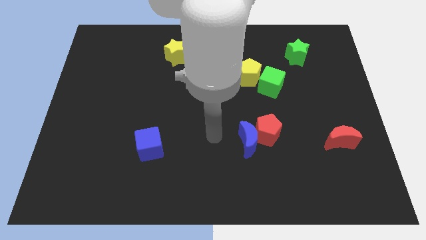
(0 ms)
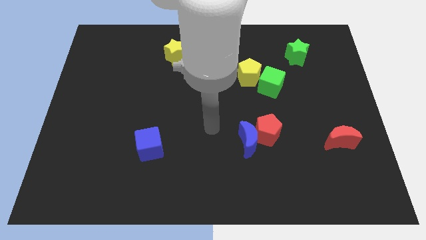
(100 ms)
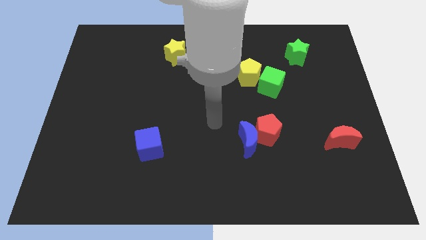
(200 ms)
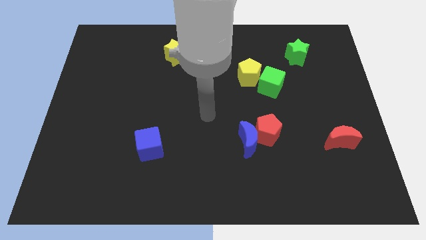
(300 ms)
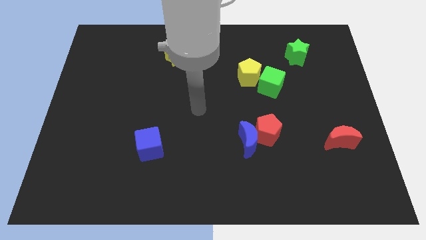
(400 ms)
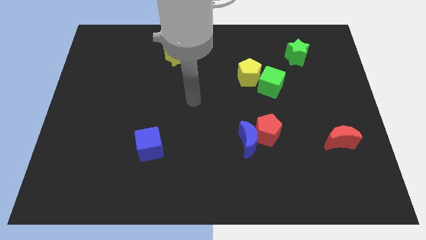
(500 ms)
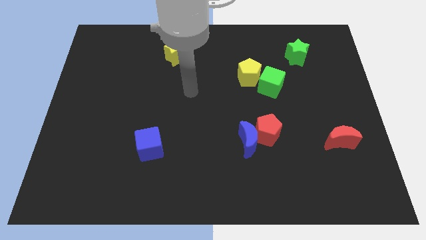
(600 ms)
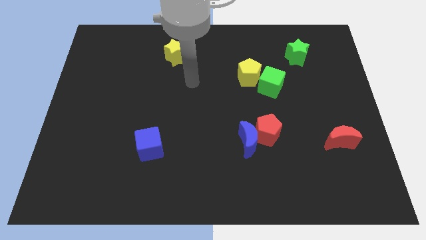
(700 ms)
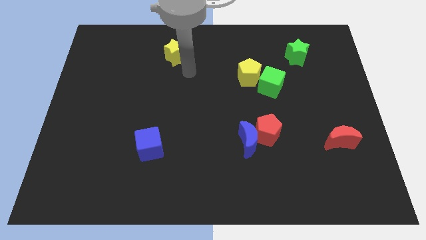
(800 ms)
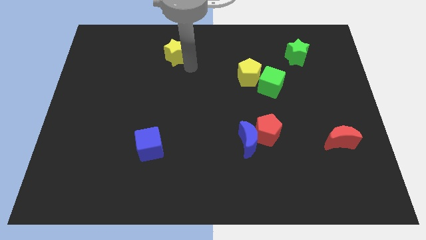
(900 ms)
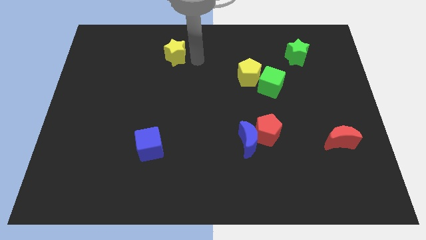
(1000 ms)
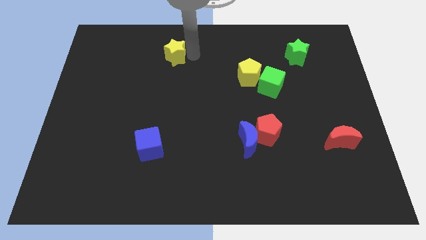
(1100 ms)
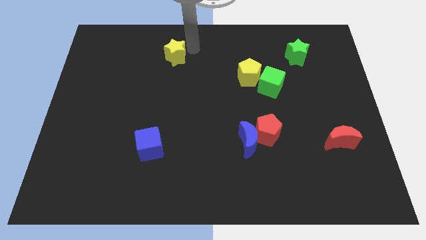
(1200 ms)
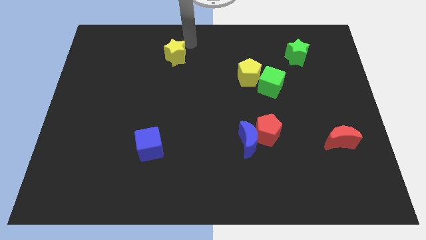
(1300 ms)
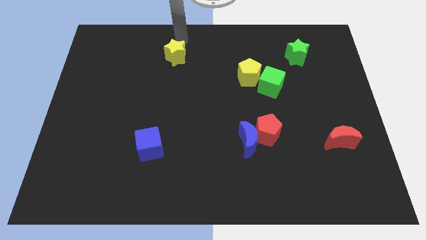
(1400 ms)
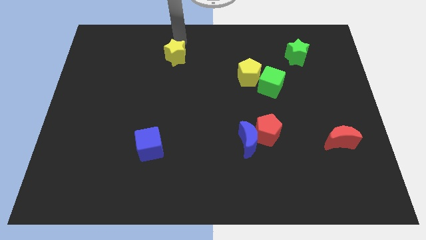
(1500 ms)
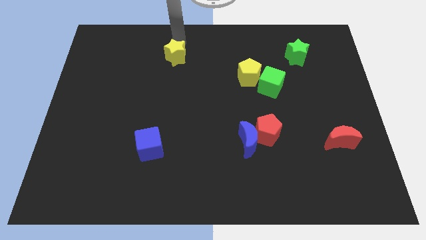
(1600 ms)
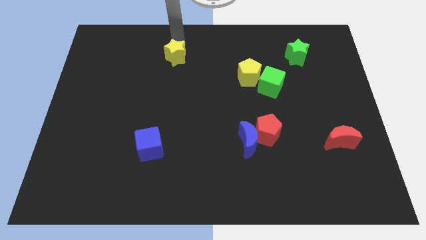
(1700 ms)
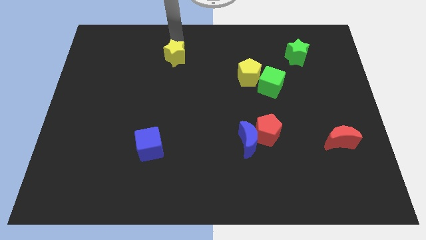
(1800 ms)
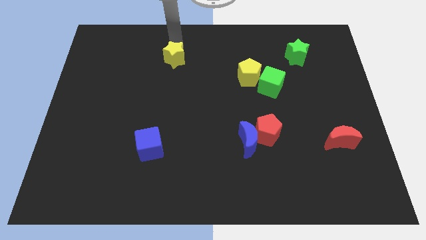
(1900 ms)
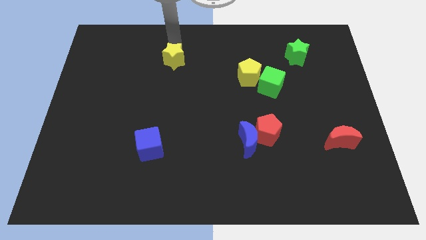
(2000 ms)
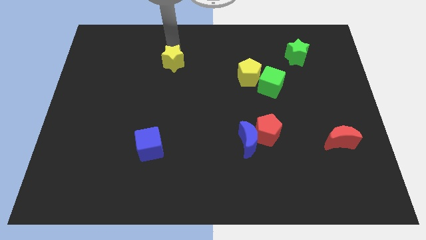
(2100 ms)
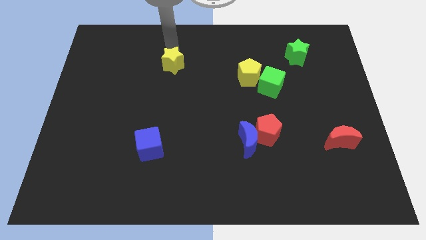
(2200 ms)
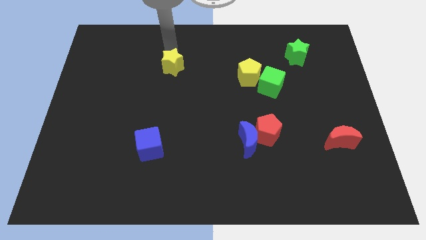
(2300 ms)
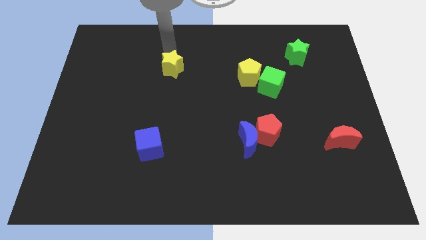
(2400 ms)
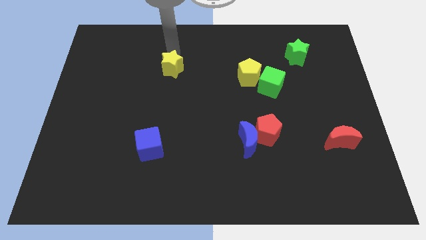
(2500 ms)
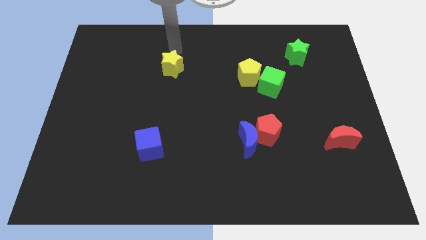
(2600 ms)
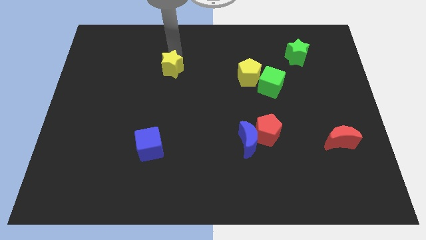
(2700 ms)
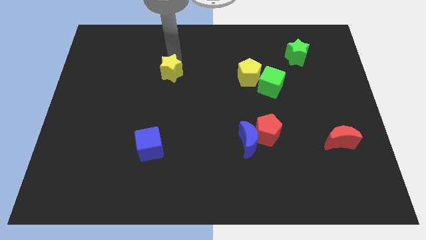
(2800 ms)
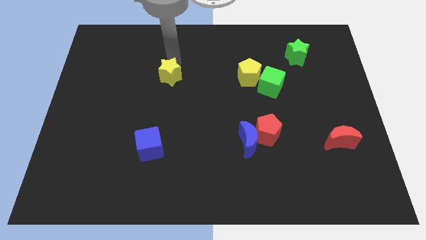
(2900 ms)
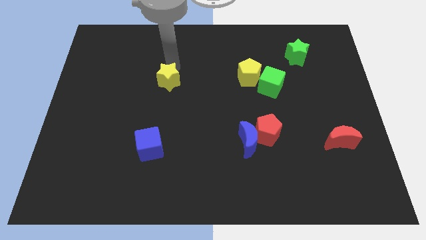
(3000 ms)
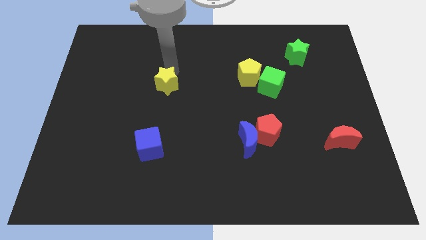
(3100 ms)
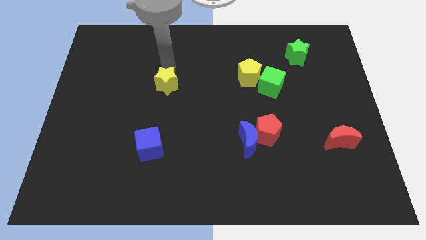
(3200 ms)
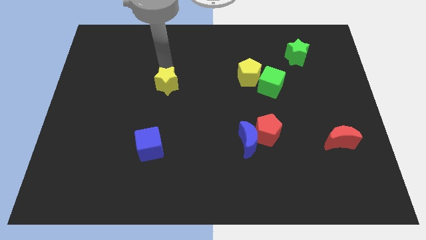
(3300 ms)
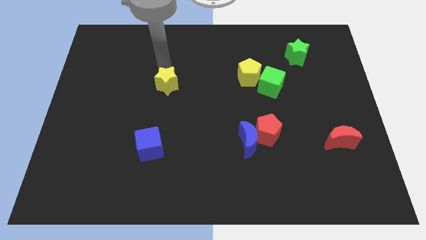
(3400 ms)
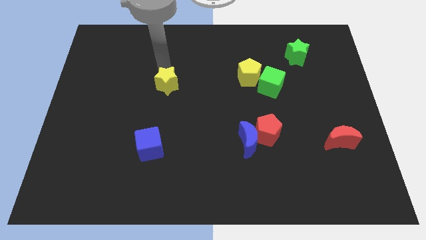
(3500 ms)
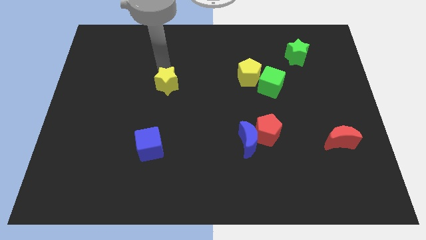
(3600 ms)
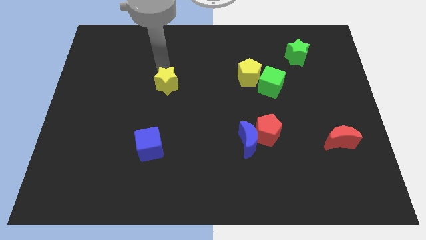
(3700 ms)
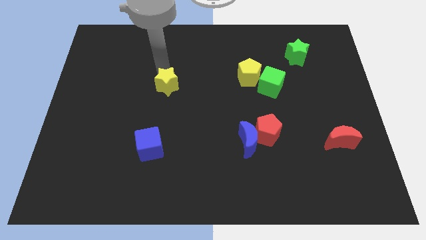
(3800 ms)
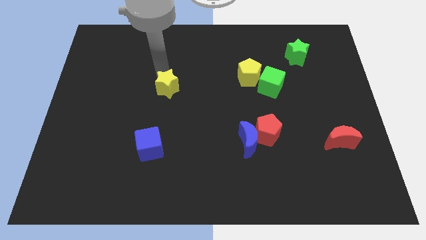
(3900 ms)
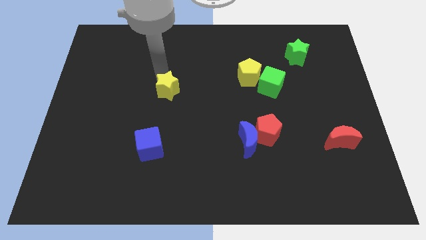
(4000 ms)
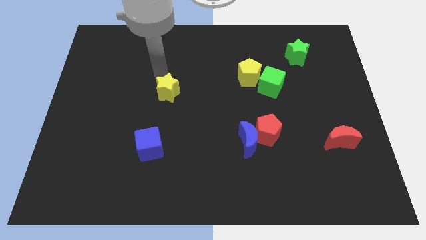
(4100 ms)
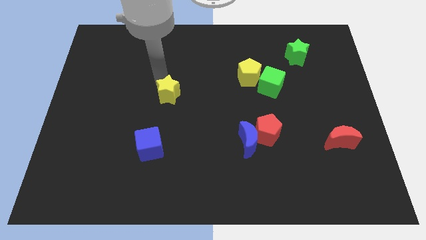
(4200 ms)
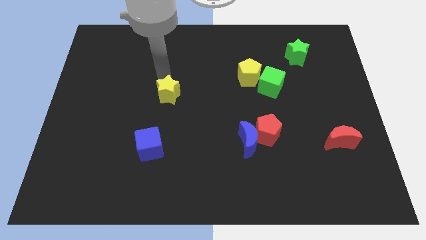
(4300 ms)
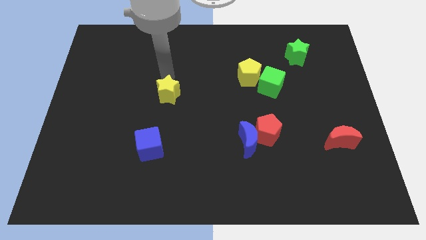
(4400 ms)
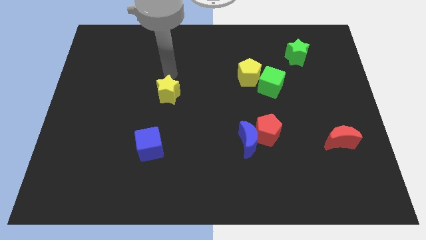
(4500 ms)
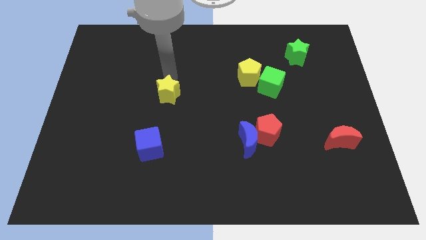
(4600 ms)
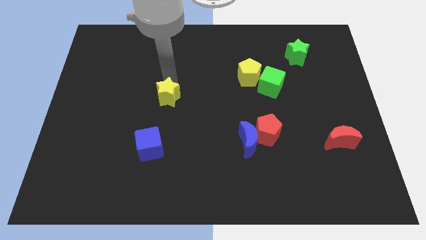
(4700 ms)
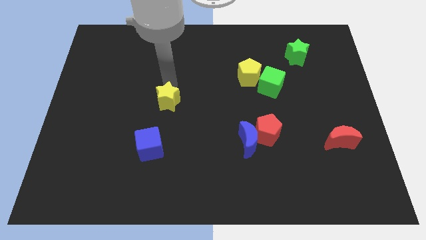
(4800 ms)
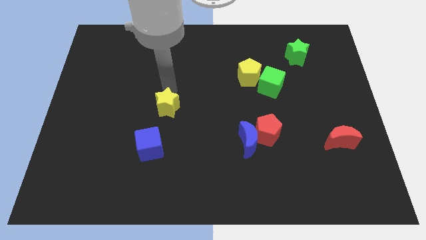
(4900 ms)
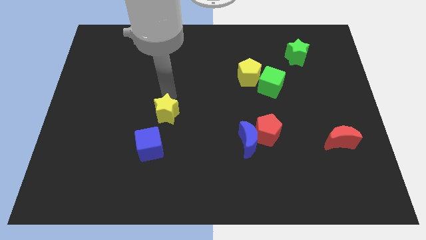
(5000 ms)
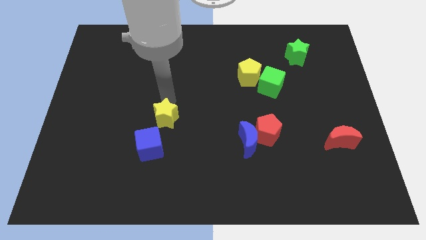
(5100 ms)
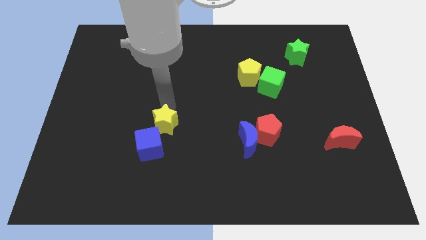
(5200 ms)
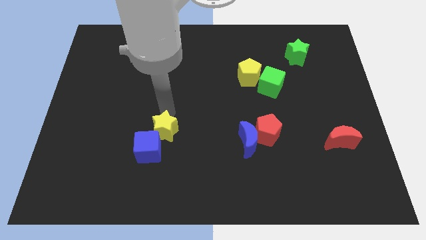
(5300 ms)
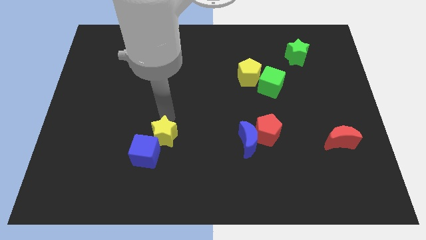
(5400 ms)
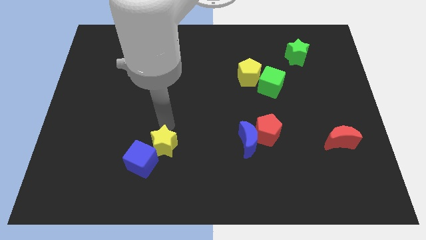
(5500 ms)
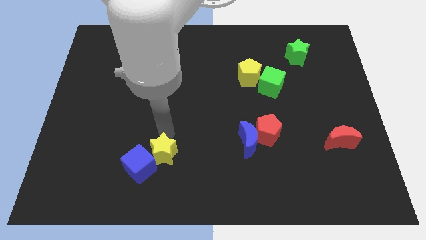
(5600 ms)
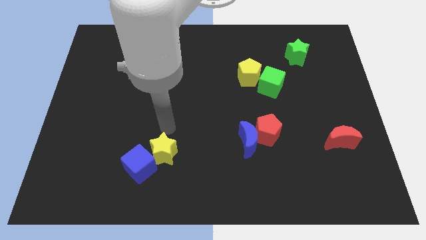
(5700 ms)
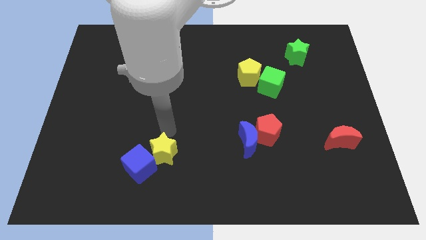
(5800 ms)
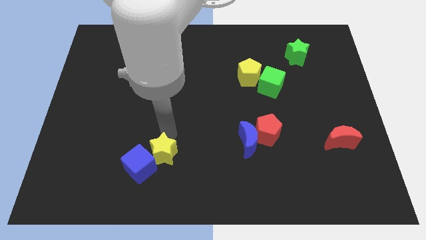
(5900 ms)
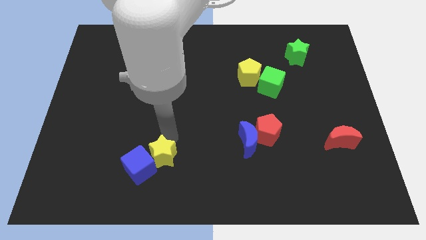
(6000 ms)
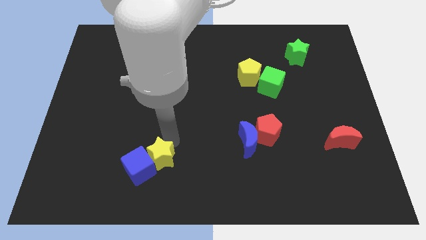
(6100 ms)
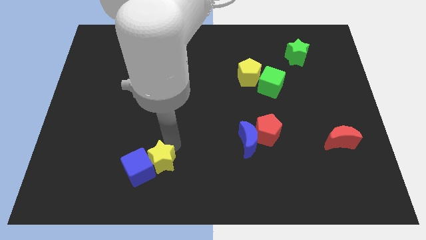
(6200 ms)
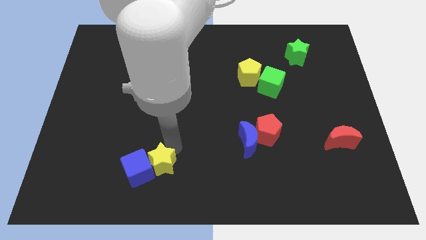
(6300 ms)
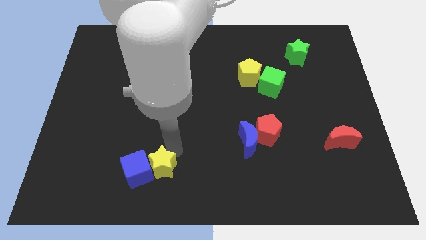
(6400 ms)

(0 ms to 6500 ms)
put the yellow star to the bottom right side of the blue cube

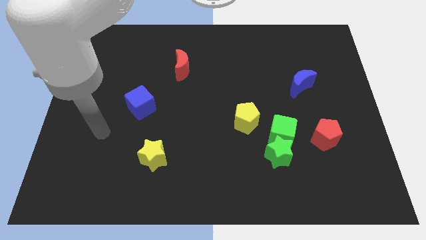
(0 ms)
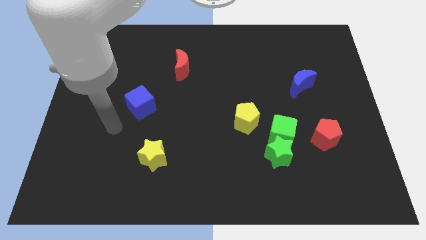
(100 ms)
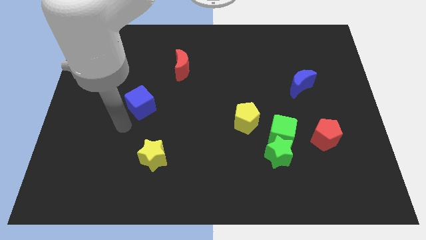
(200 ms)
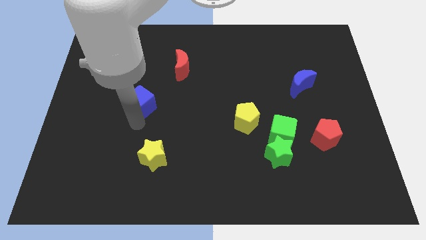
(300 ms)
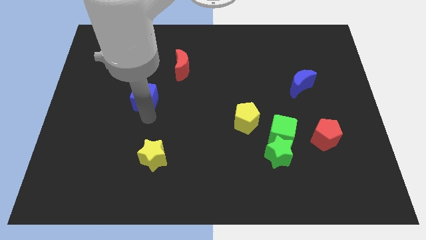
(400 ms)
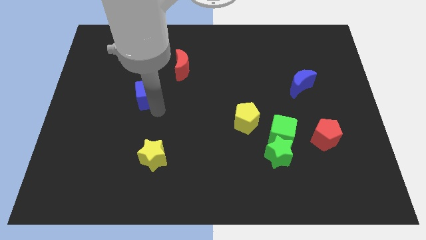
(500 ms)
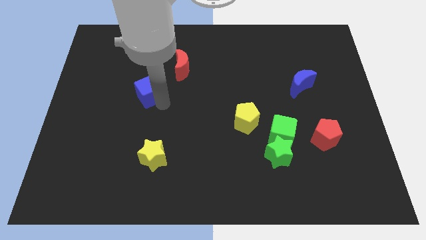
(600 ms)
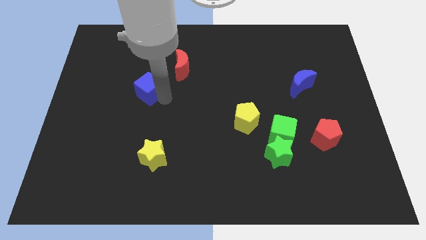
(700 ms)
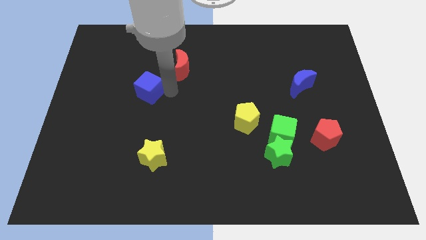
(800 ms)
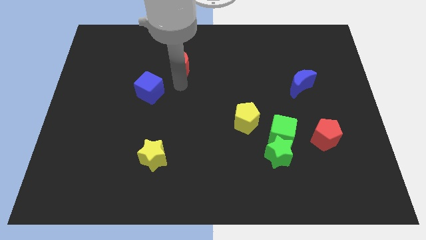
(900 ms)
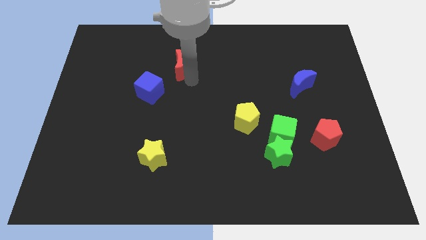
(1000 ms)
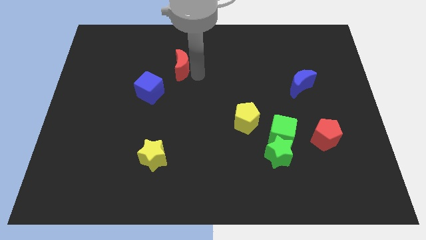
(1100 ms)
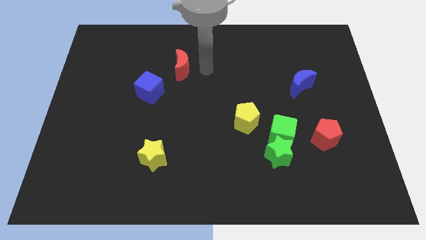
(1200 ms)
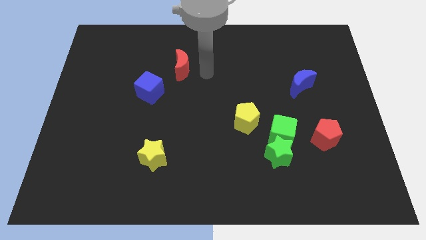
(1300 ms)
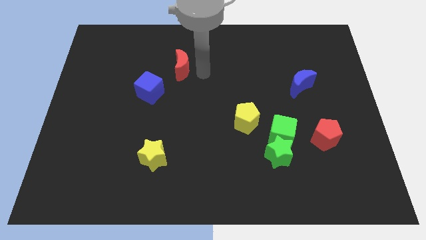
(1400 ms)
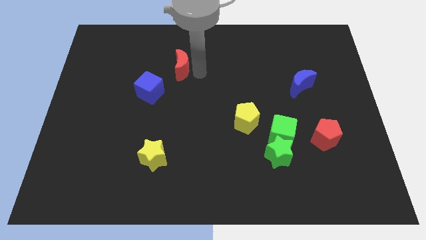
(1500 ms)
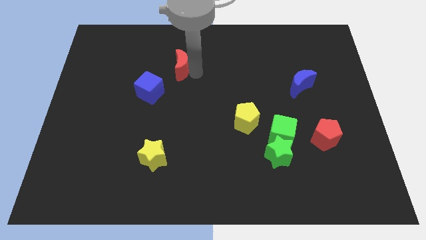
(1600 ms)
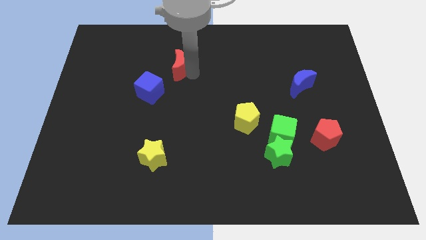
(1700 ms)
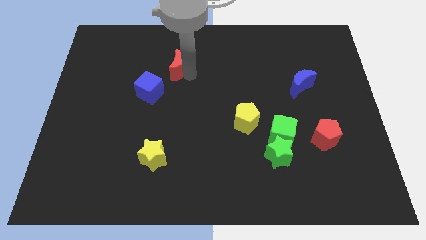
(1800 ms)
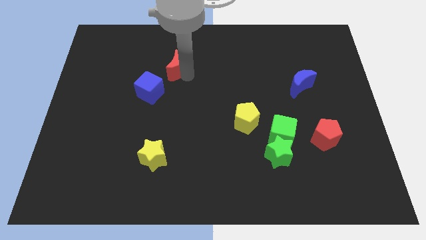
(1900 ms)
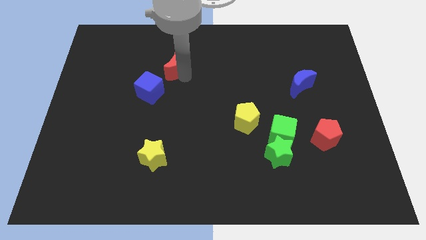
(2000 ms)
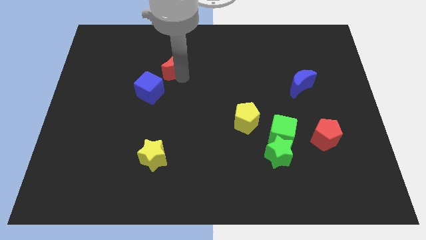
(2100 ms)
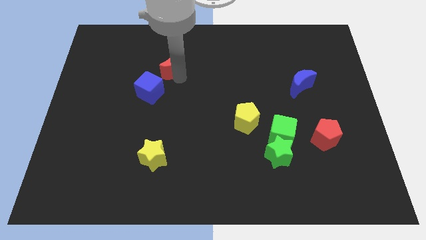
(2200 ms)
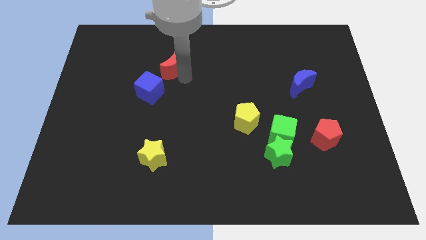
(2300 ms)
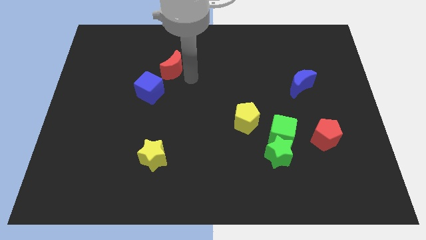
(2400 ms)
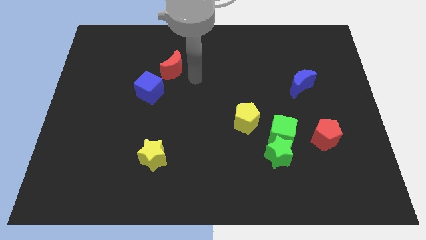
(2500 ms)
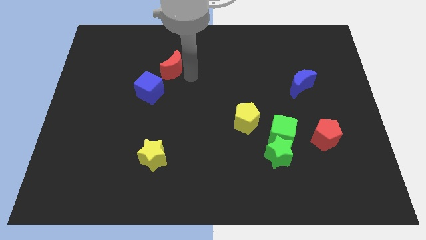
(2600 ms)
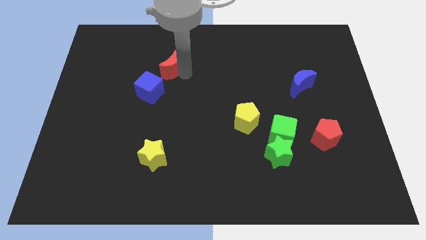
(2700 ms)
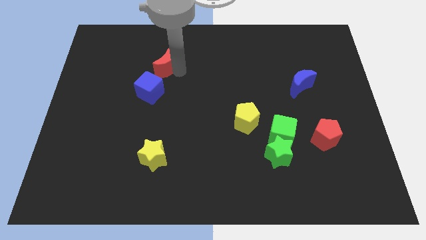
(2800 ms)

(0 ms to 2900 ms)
slide the red moon to the top of the blue cube
